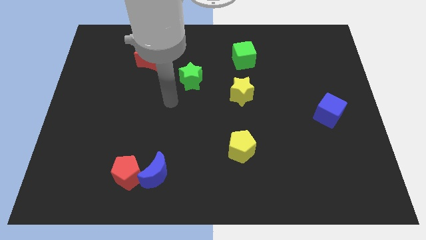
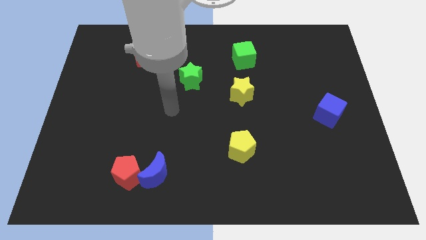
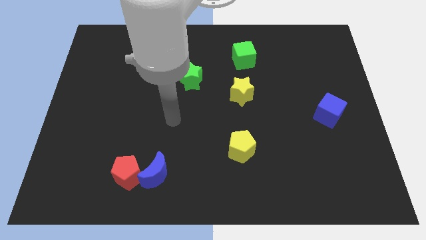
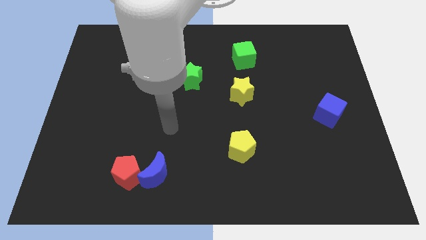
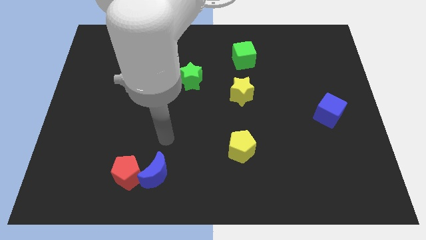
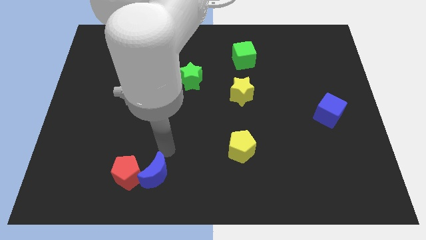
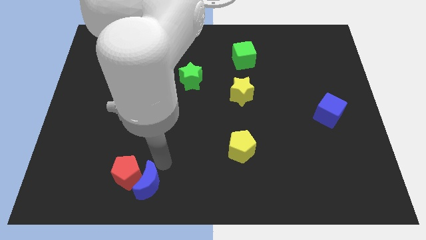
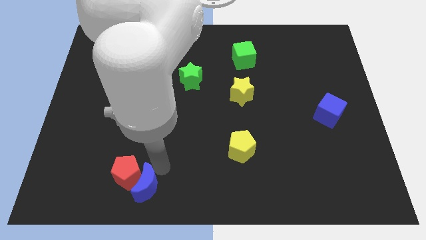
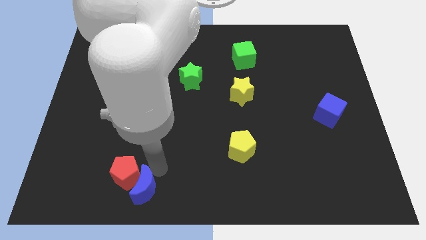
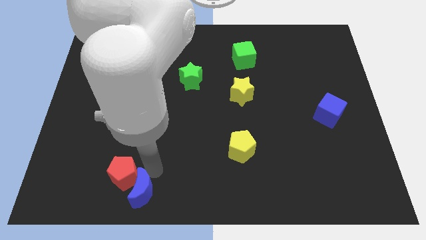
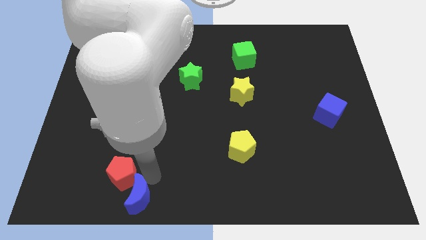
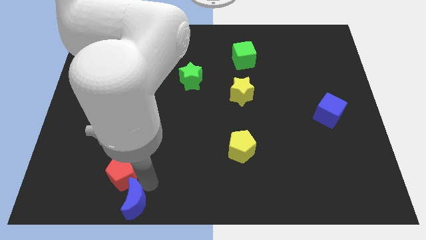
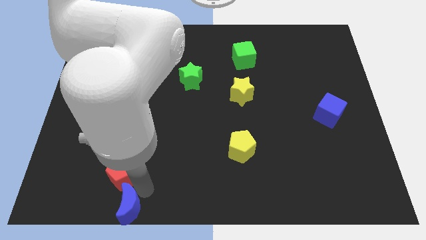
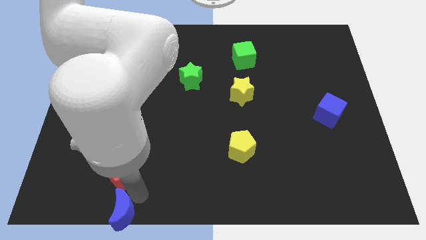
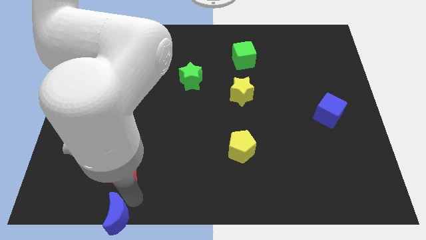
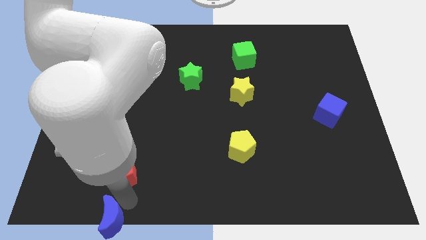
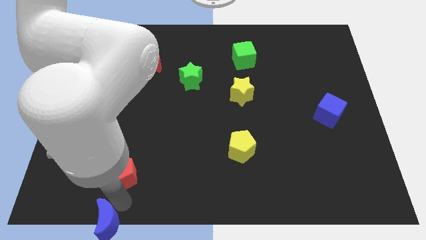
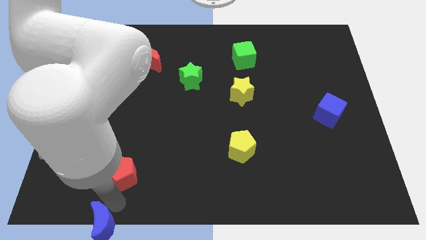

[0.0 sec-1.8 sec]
separate the red pentagon from the blue moon

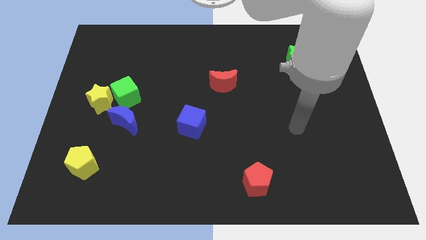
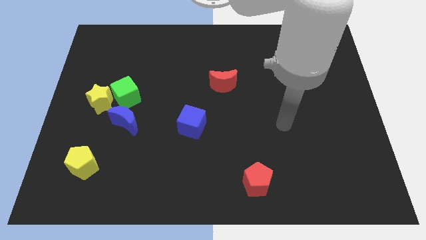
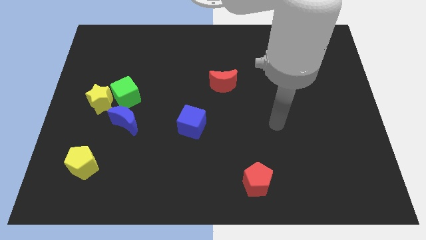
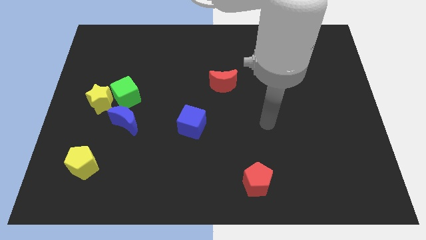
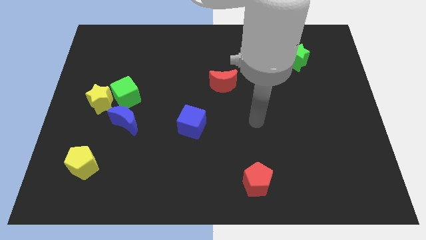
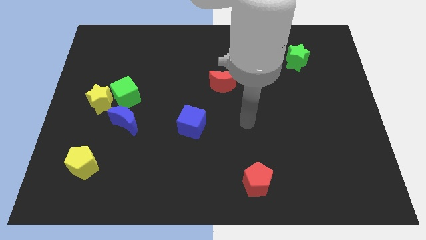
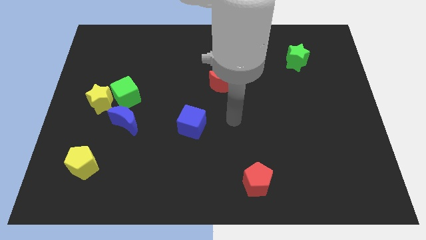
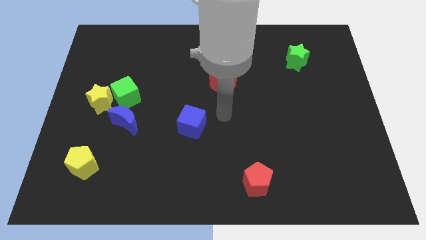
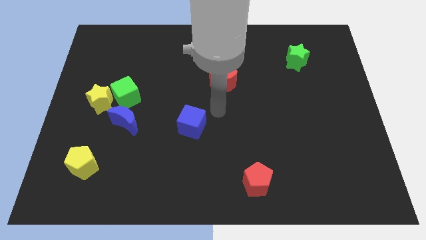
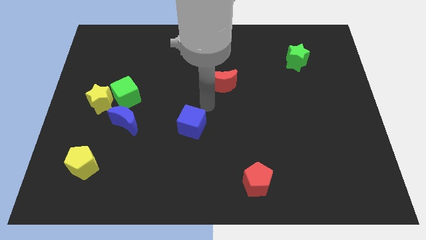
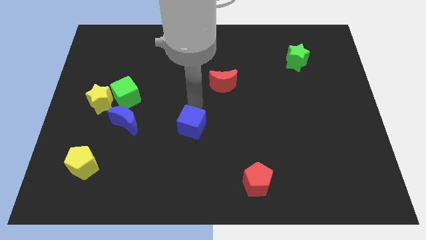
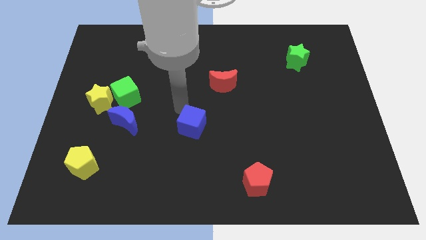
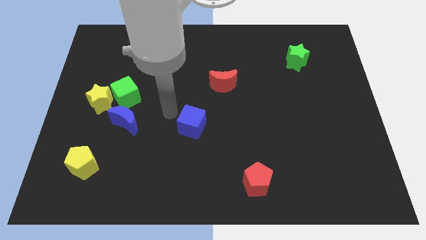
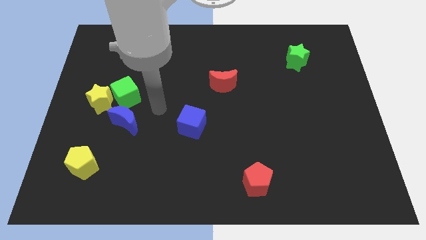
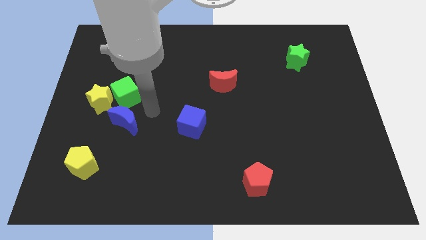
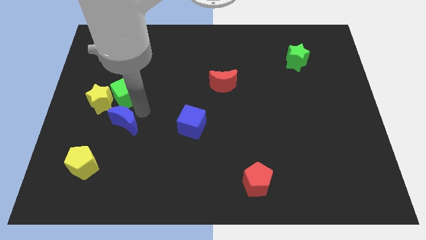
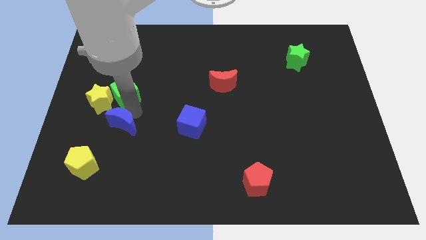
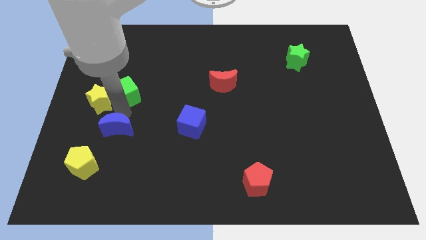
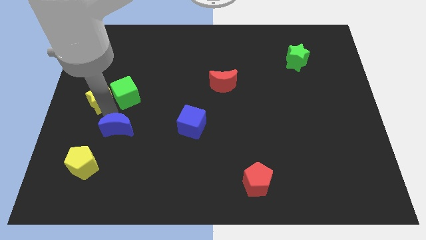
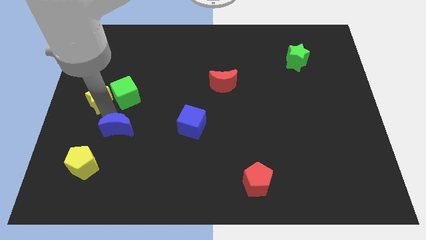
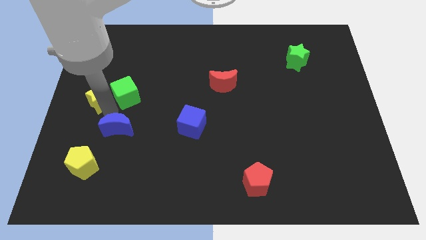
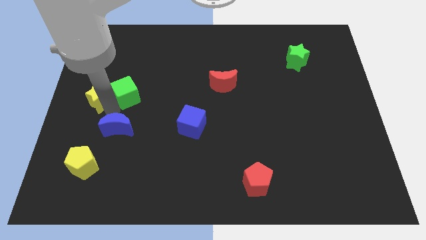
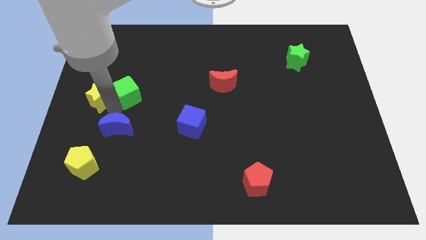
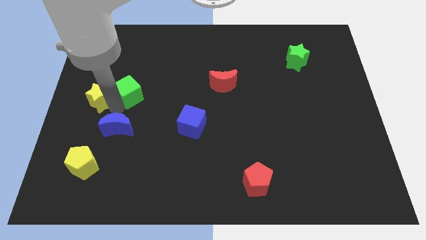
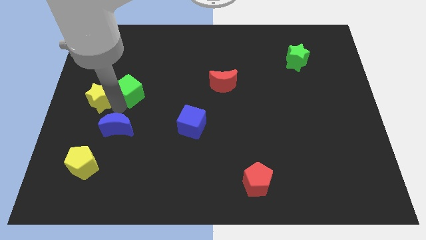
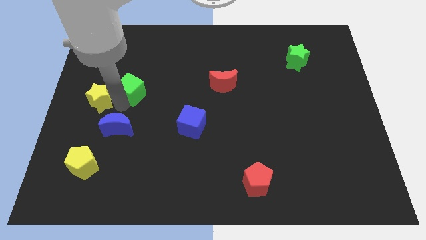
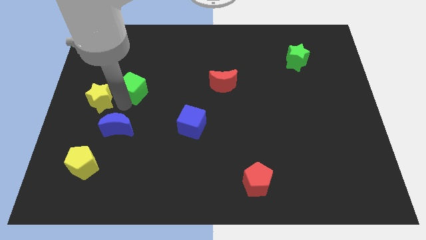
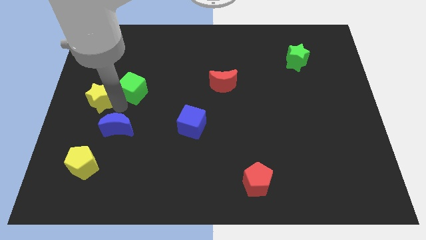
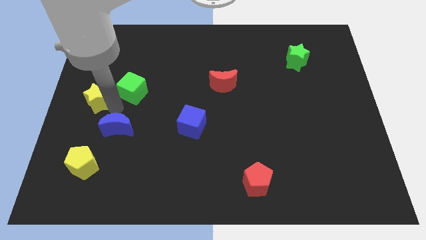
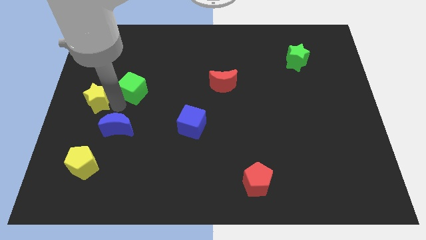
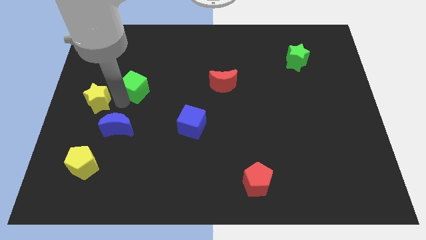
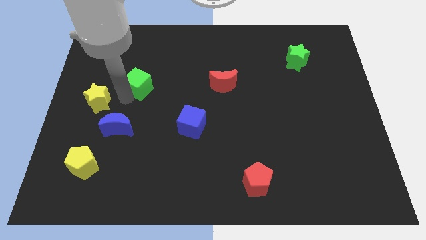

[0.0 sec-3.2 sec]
move the green cube away from the yellow star and blue moon

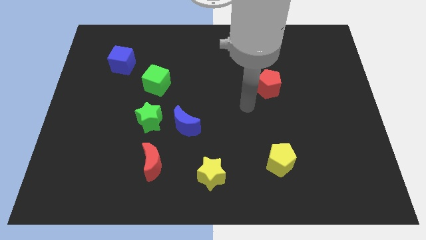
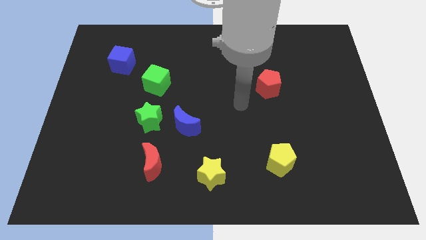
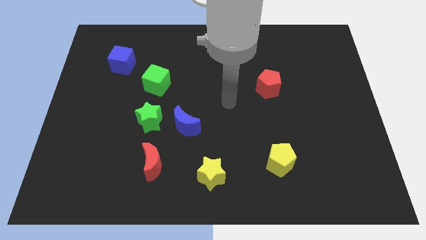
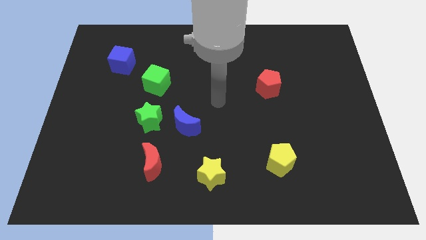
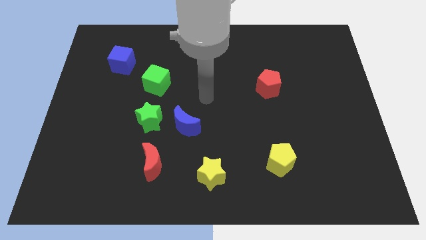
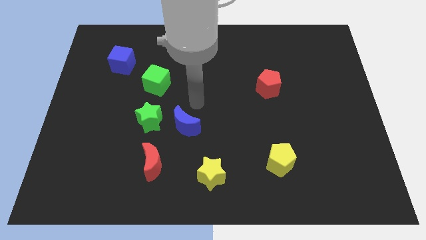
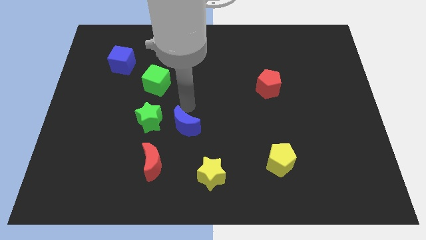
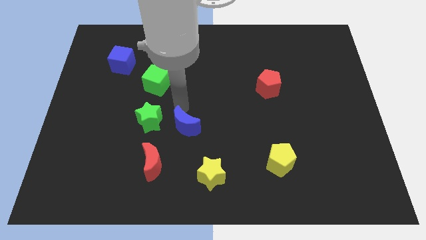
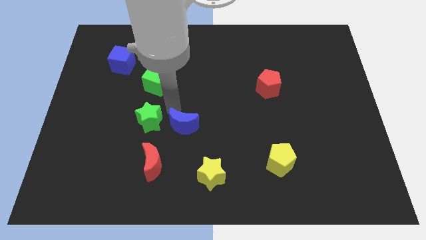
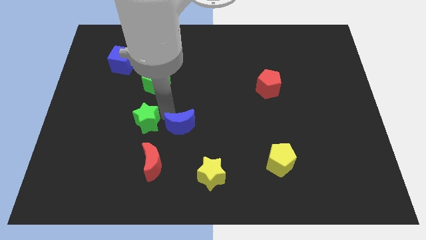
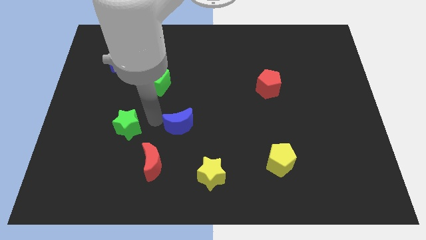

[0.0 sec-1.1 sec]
pull the blue moon apart from the green star

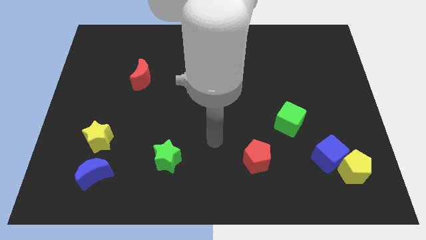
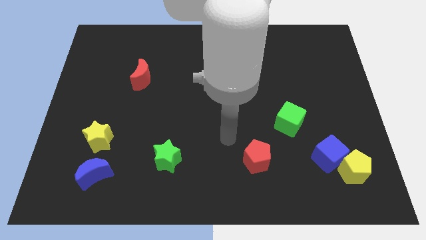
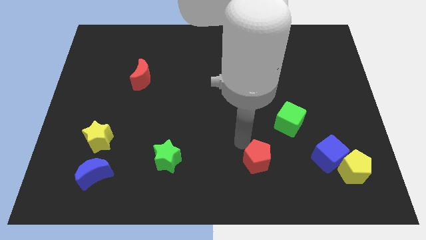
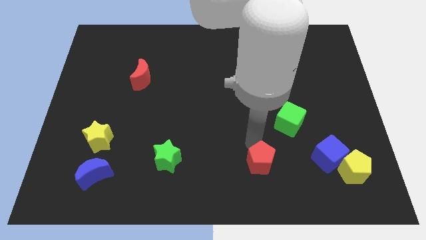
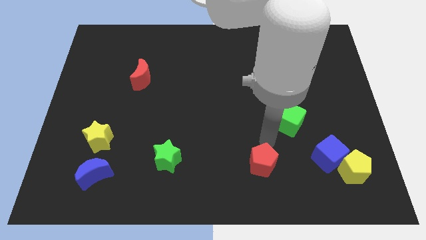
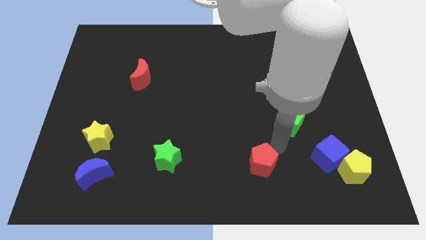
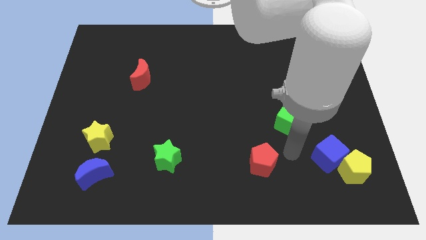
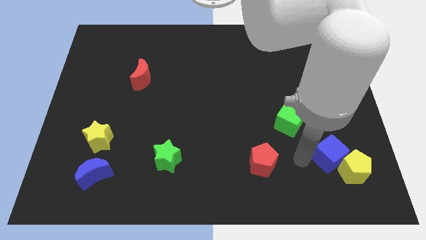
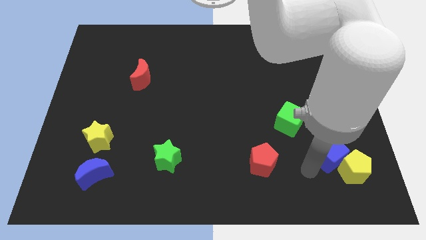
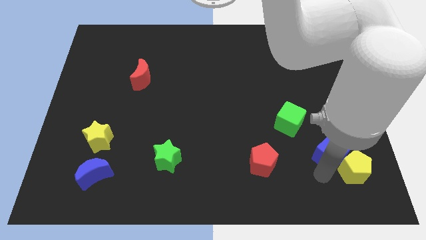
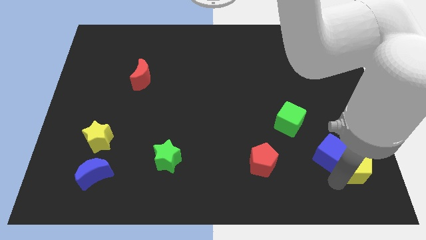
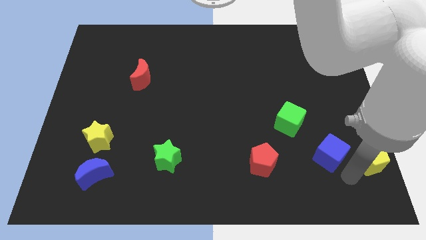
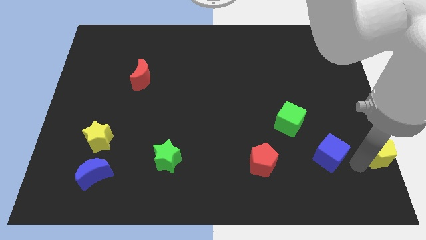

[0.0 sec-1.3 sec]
pull the blue cube apart from the yellow pentagon

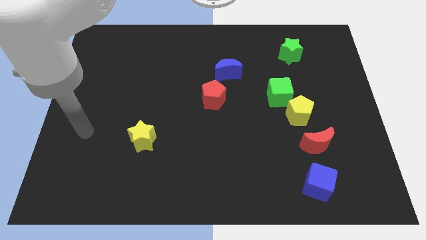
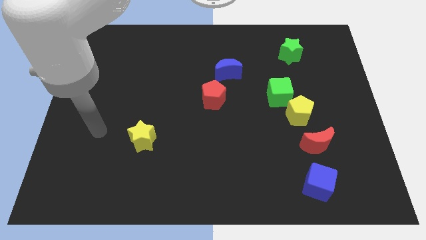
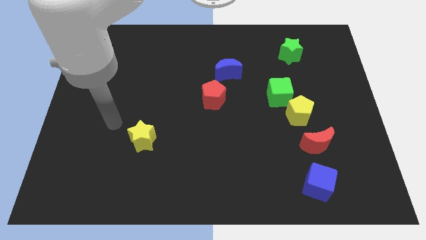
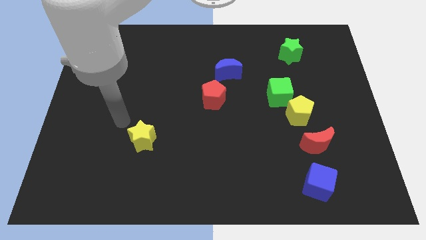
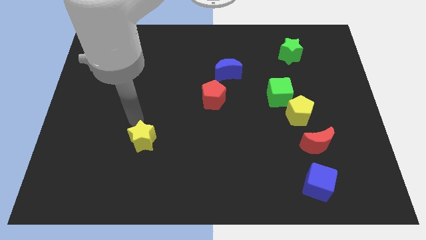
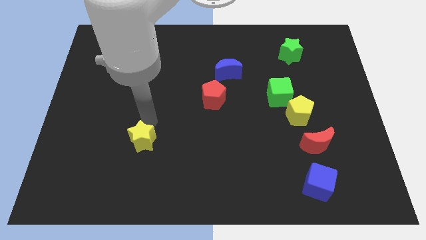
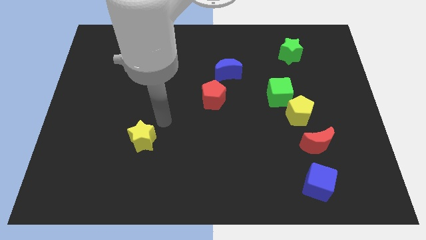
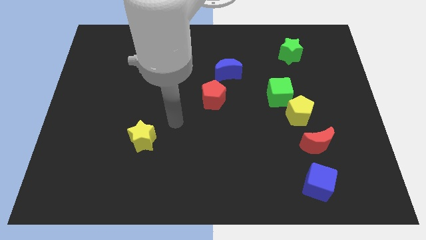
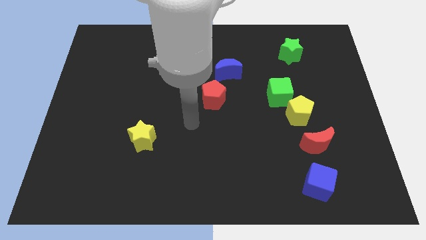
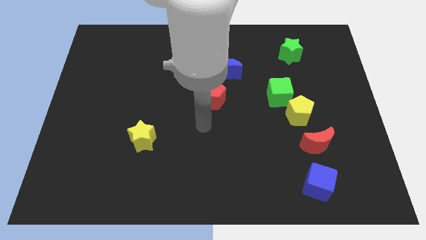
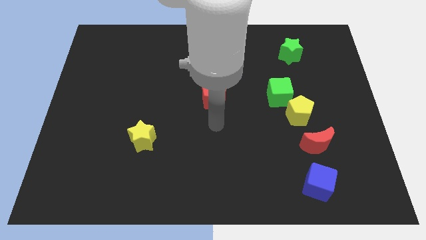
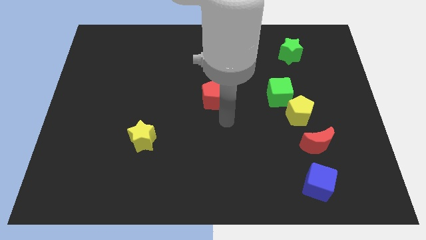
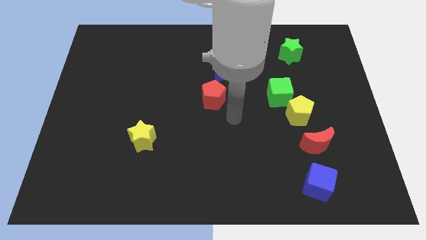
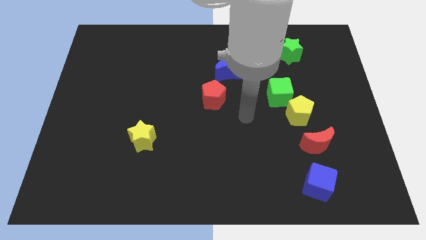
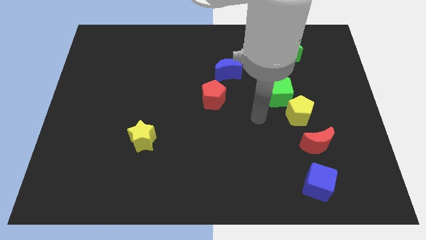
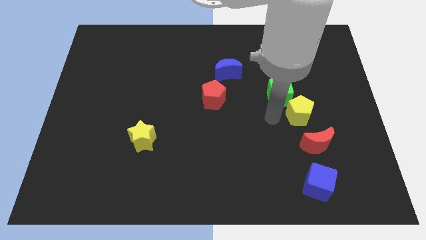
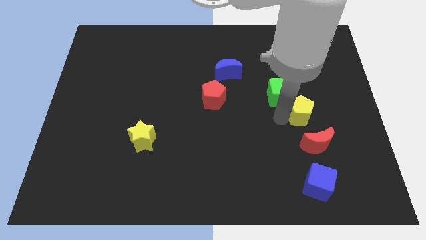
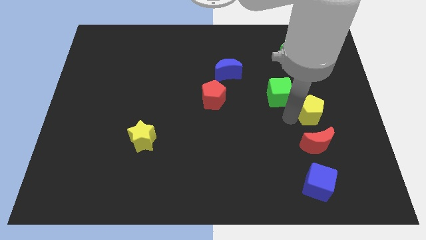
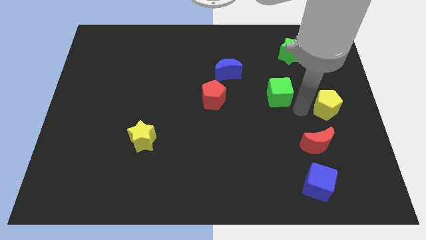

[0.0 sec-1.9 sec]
pull the green cube apart from the yellow pentagon
